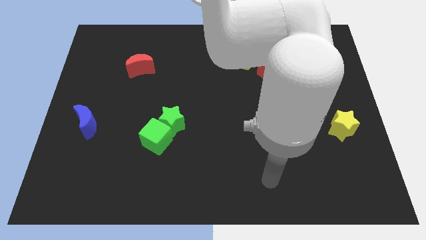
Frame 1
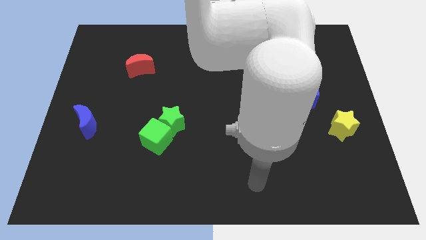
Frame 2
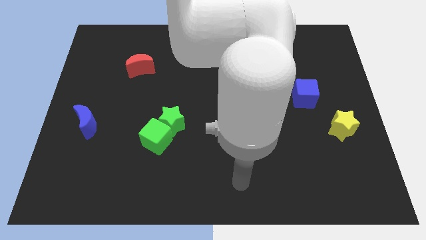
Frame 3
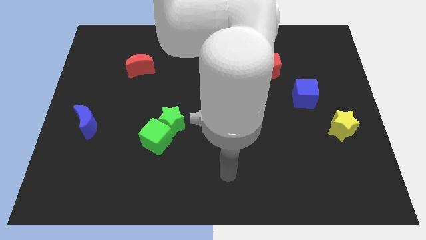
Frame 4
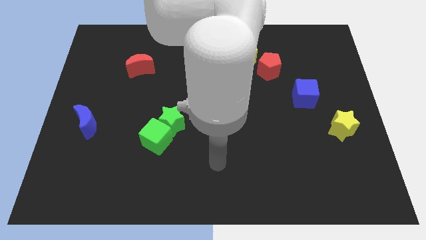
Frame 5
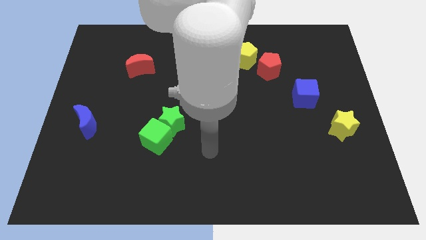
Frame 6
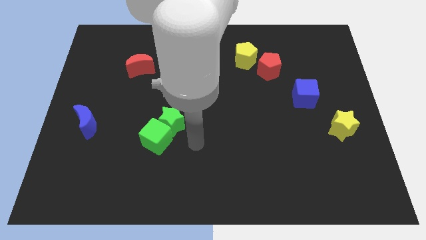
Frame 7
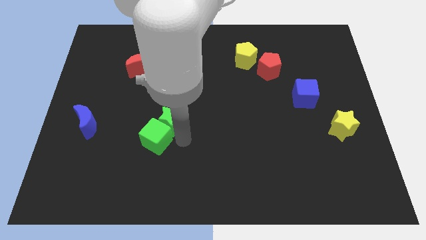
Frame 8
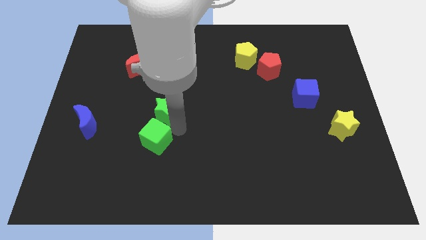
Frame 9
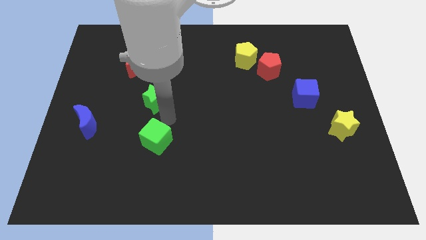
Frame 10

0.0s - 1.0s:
separate the green cube from the green star

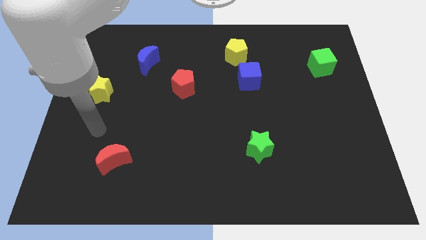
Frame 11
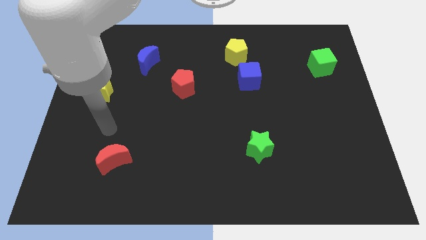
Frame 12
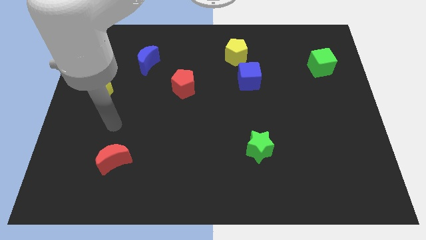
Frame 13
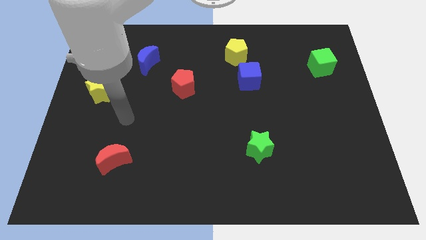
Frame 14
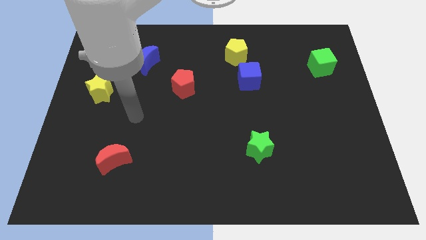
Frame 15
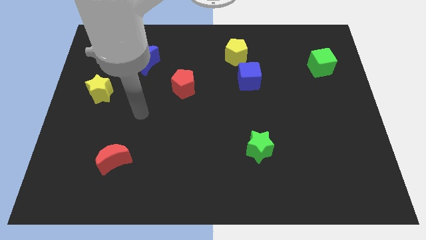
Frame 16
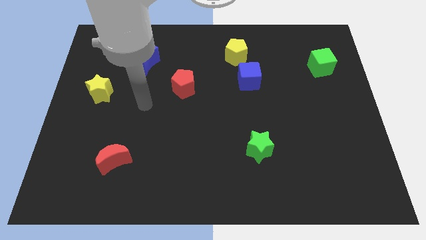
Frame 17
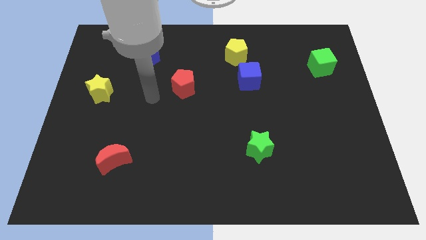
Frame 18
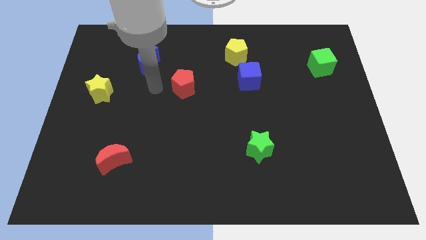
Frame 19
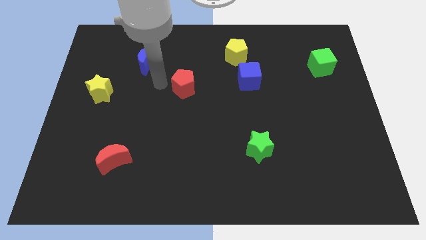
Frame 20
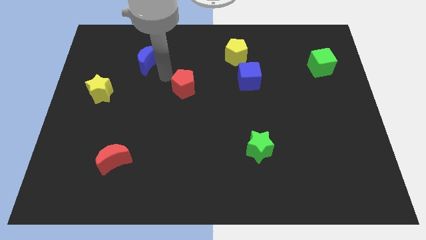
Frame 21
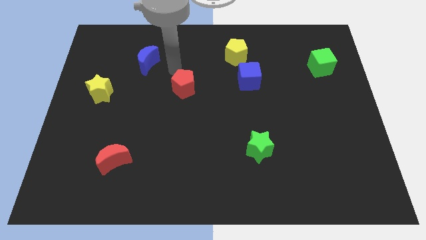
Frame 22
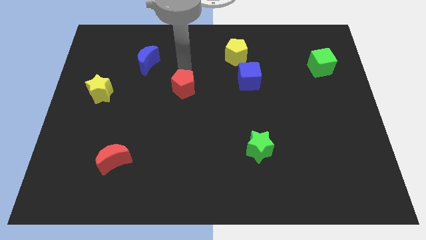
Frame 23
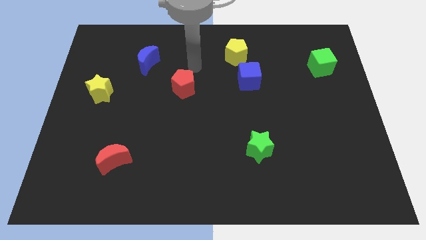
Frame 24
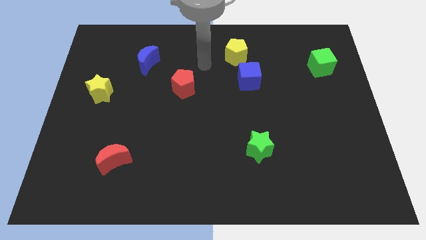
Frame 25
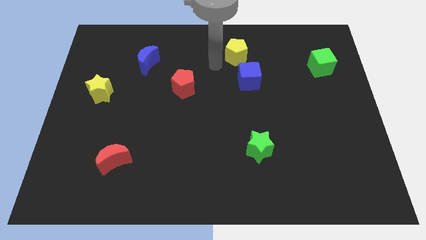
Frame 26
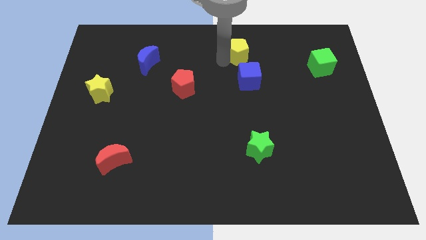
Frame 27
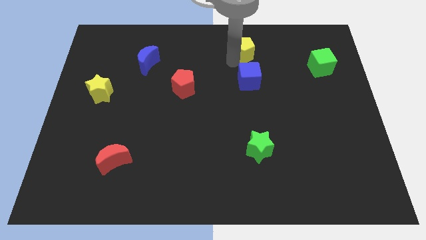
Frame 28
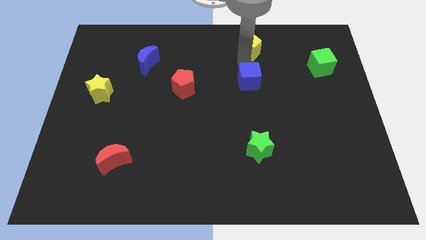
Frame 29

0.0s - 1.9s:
move the blue cube away from the yellow pentagon

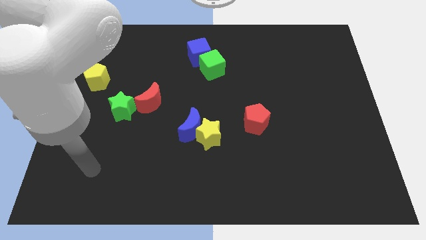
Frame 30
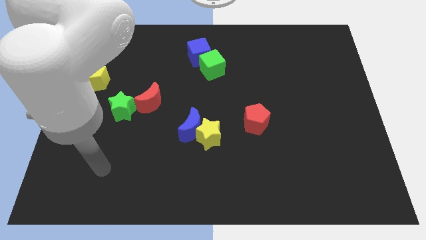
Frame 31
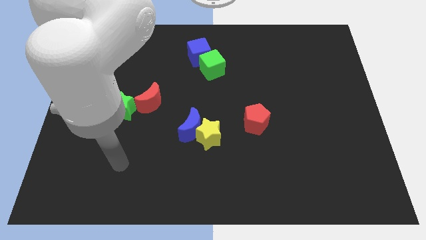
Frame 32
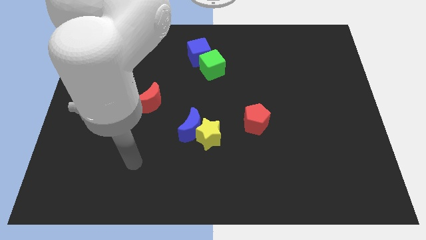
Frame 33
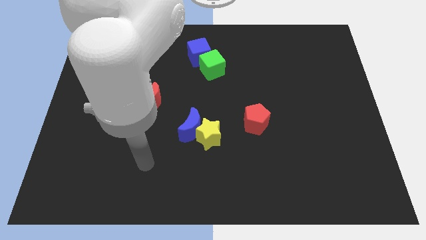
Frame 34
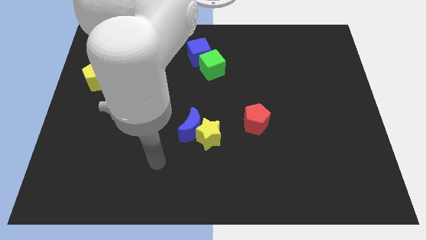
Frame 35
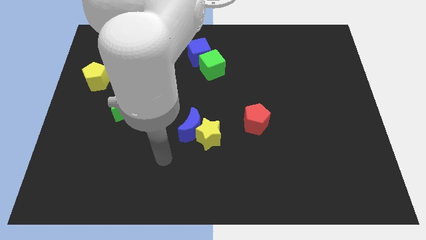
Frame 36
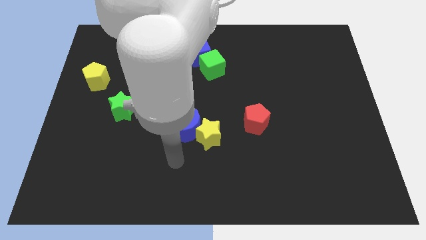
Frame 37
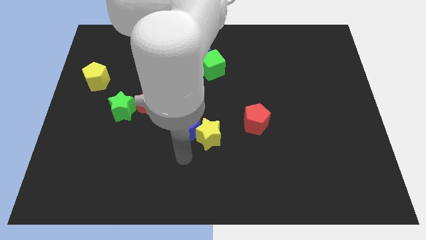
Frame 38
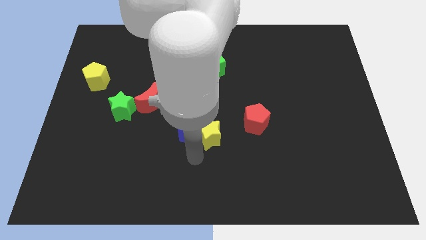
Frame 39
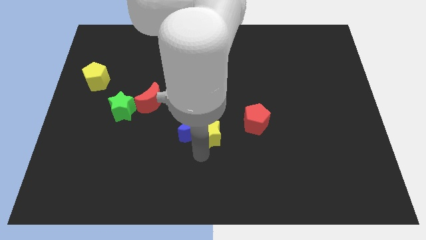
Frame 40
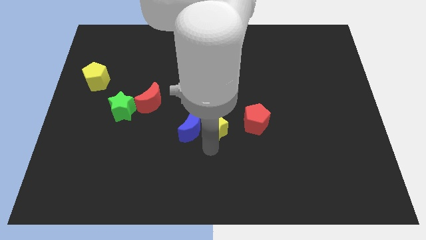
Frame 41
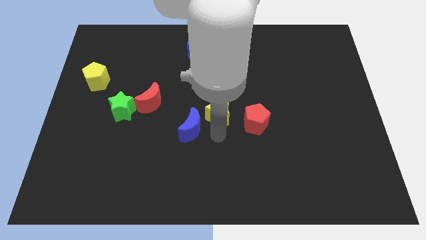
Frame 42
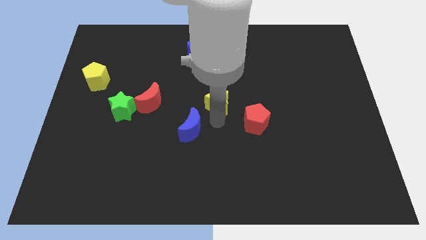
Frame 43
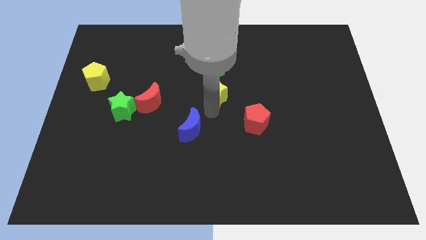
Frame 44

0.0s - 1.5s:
separate the blue moon from the yellow star

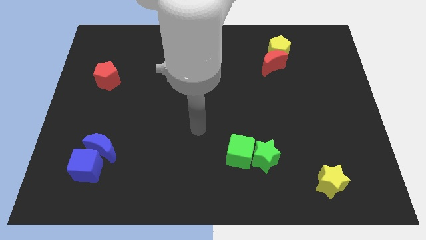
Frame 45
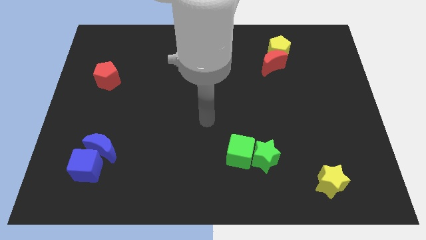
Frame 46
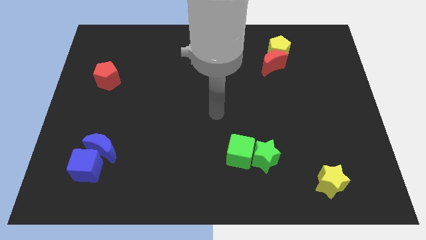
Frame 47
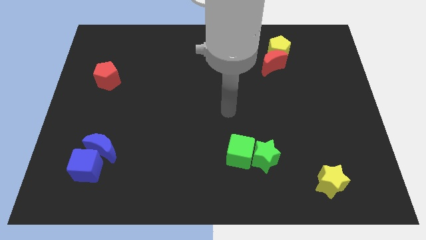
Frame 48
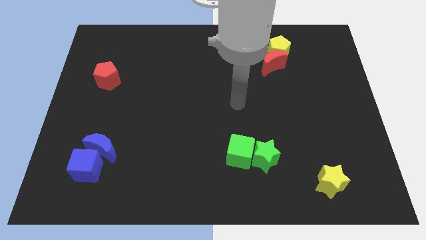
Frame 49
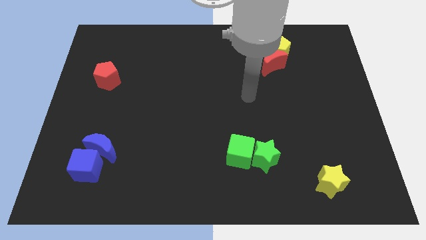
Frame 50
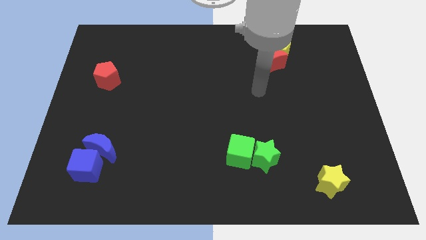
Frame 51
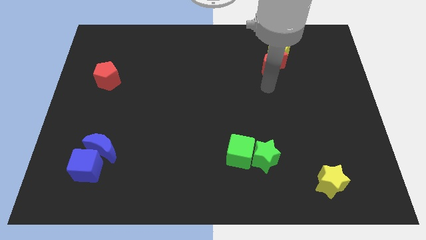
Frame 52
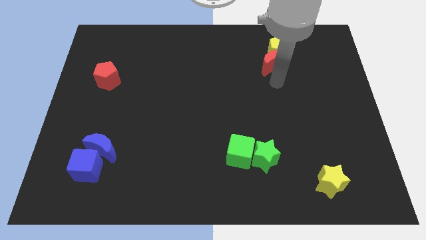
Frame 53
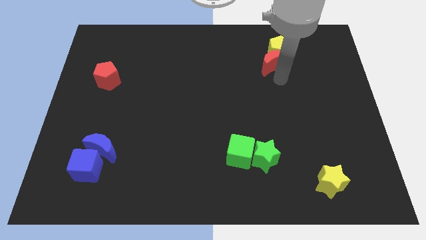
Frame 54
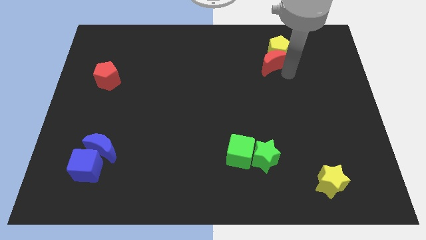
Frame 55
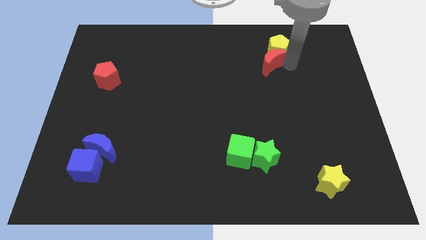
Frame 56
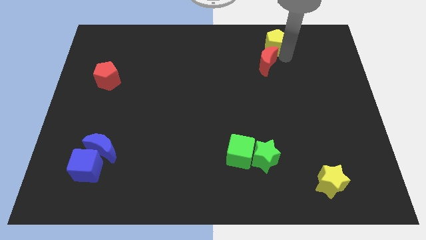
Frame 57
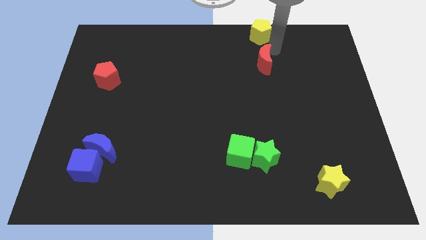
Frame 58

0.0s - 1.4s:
move the red moon away from the yellow pentagon

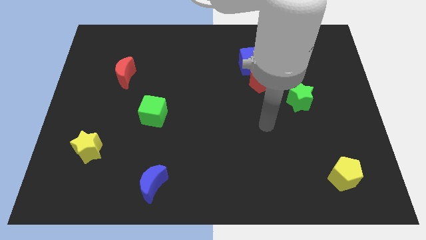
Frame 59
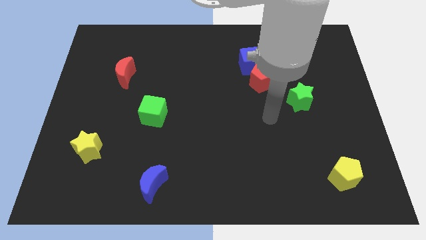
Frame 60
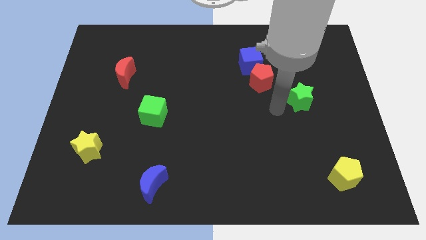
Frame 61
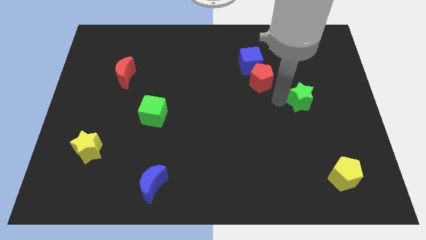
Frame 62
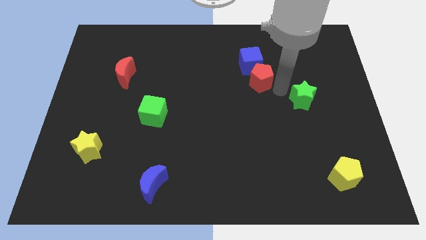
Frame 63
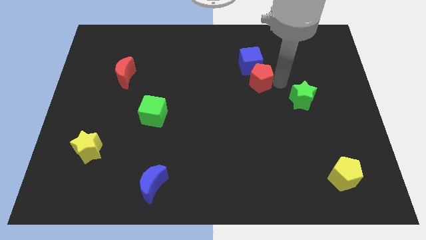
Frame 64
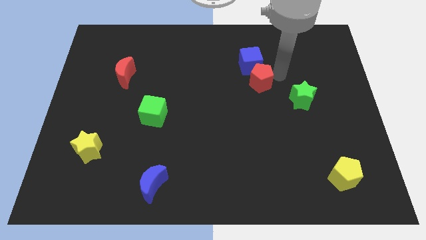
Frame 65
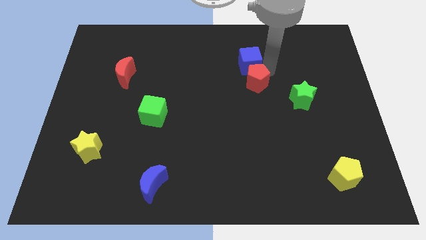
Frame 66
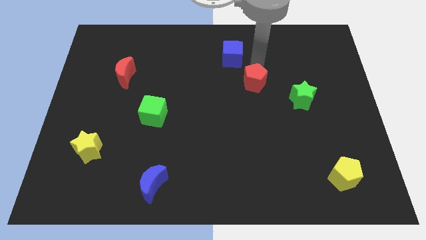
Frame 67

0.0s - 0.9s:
separate the red pentagon from the blue cube

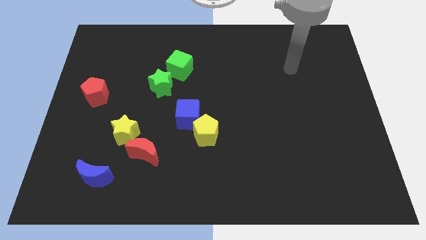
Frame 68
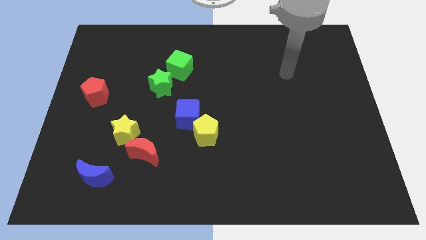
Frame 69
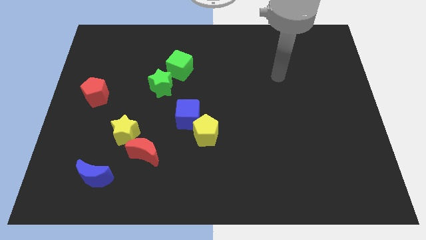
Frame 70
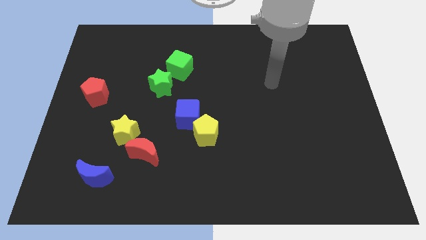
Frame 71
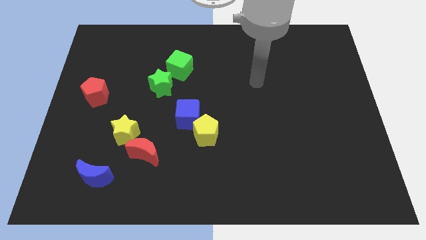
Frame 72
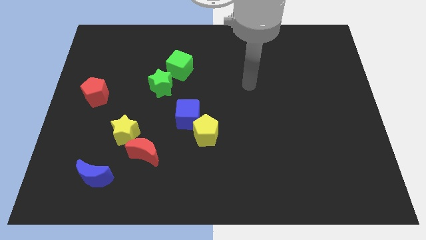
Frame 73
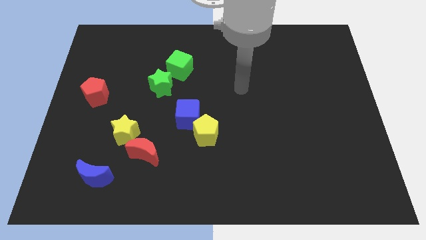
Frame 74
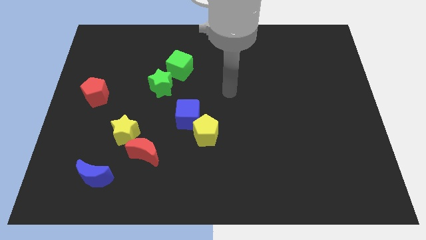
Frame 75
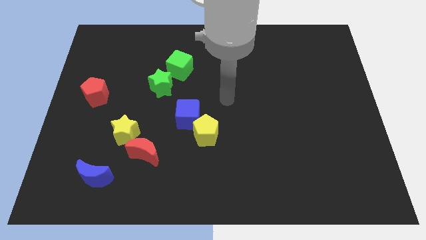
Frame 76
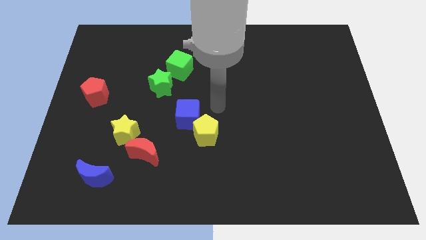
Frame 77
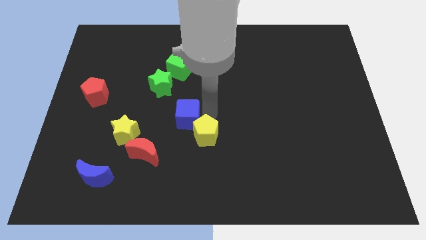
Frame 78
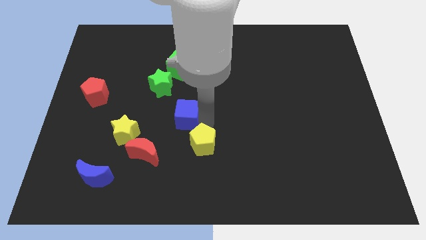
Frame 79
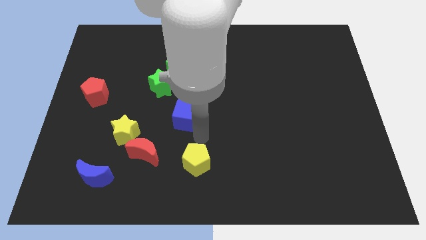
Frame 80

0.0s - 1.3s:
pull the blue cube apart from the yellow pentagon

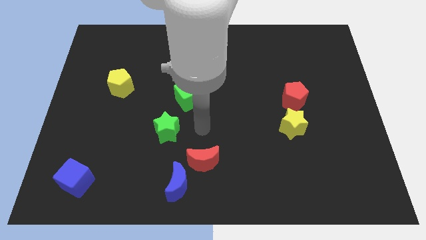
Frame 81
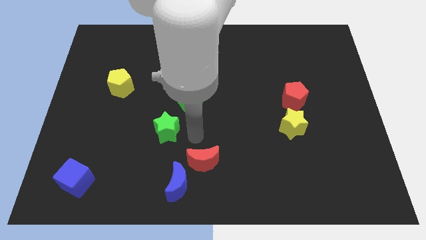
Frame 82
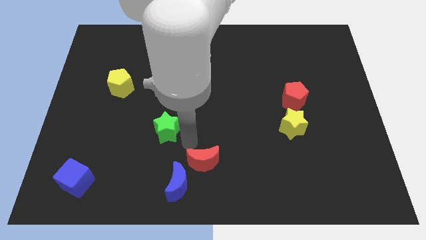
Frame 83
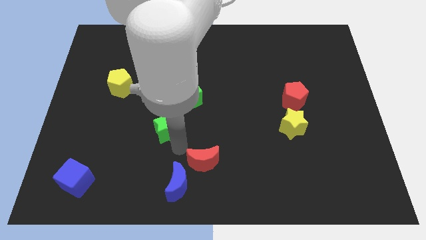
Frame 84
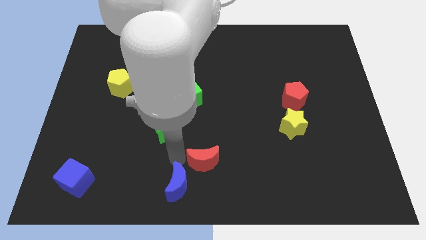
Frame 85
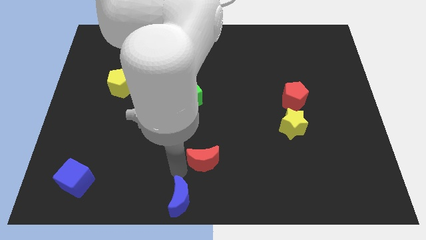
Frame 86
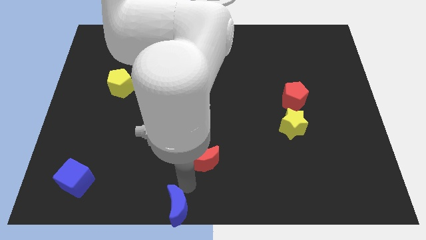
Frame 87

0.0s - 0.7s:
separate the red moon from the blue moon

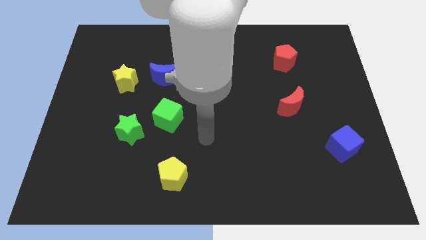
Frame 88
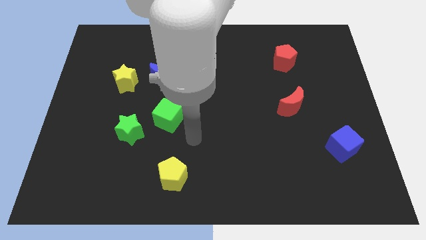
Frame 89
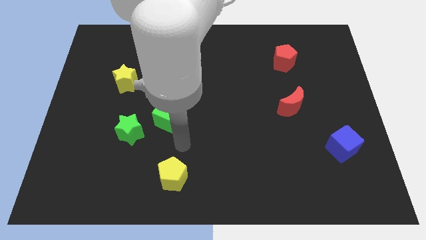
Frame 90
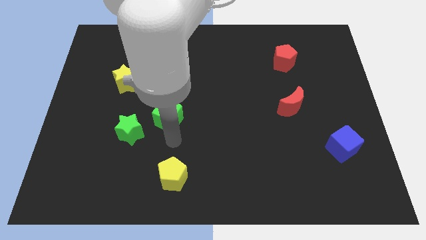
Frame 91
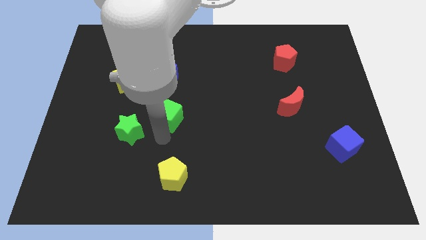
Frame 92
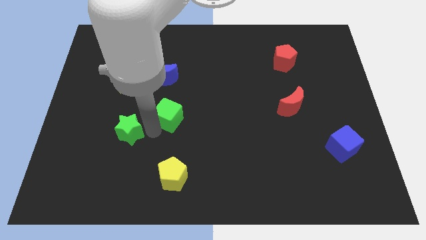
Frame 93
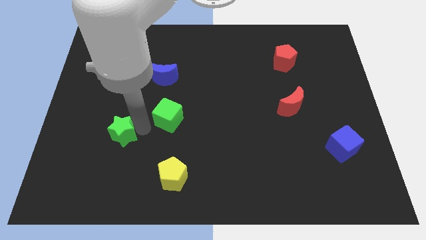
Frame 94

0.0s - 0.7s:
pull the green cube apart from the green star
